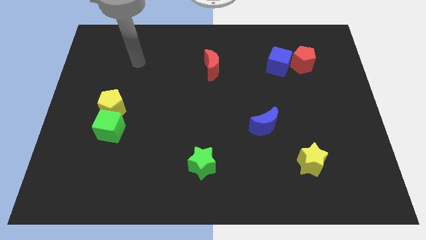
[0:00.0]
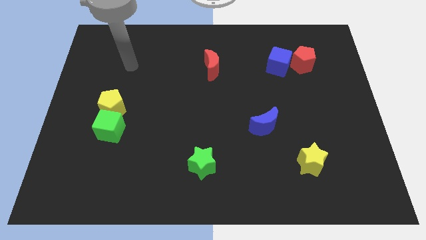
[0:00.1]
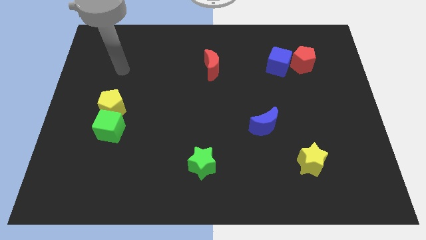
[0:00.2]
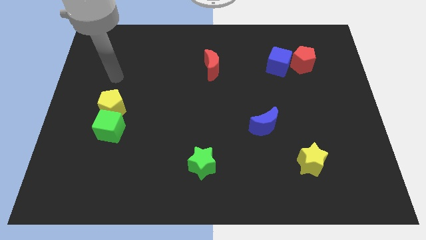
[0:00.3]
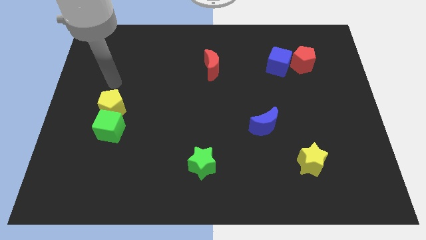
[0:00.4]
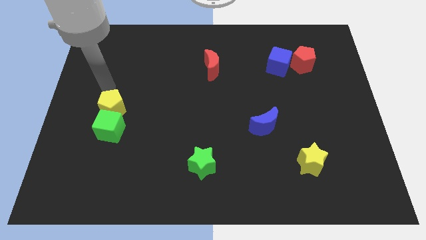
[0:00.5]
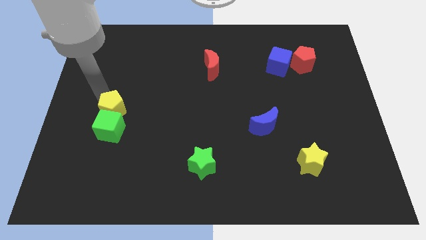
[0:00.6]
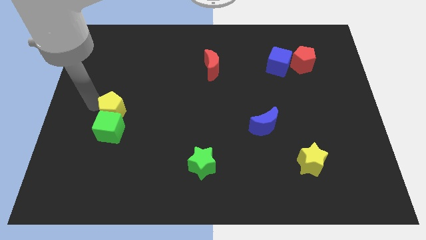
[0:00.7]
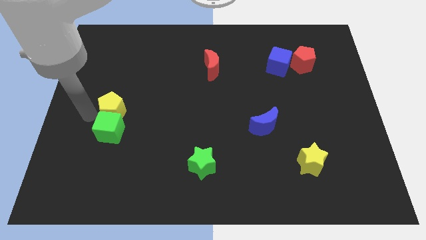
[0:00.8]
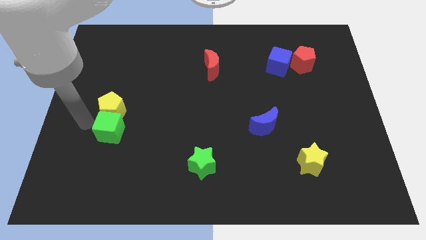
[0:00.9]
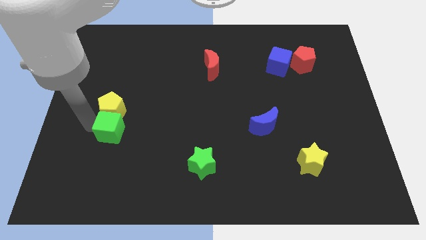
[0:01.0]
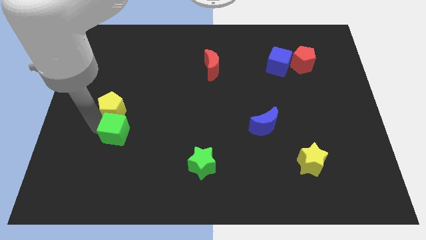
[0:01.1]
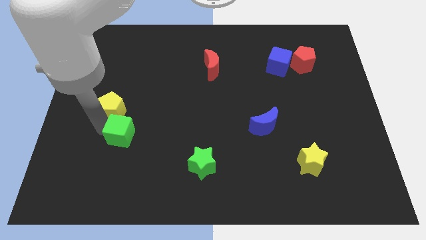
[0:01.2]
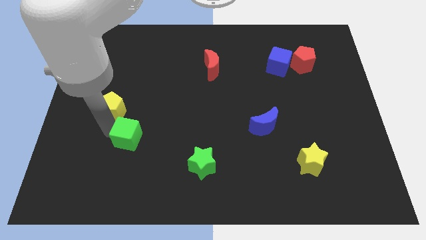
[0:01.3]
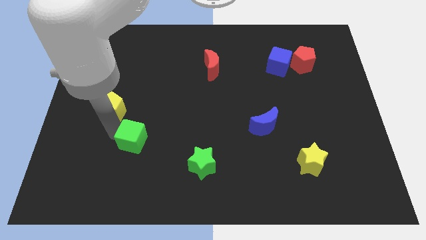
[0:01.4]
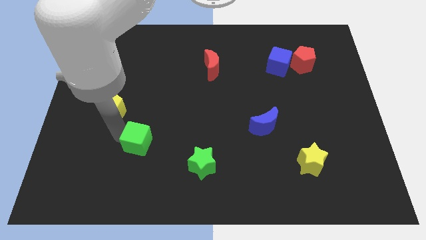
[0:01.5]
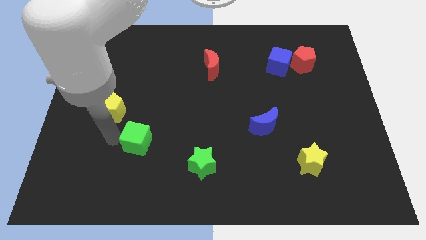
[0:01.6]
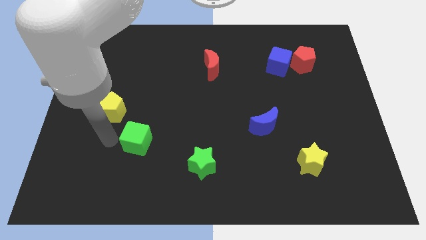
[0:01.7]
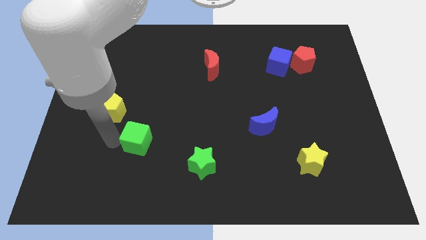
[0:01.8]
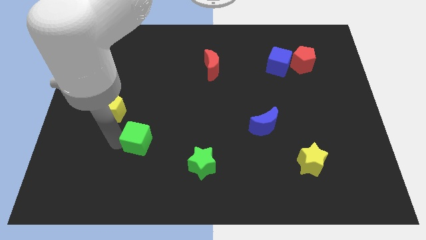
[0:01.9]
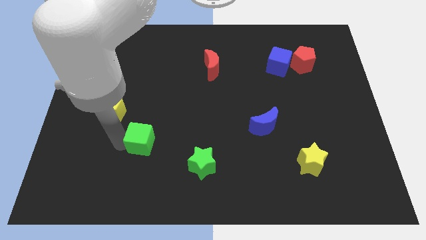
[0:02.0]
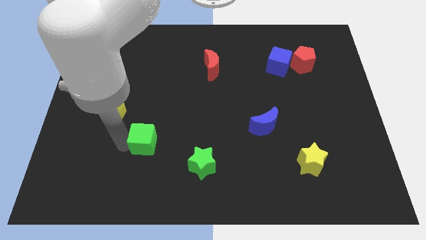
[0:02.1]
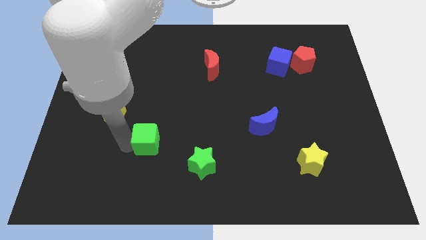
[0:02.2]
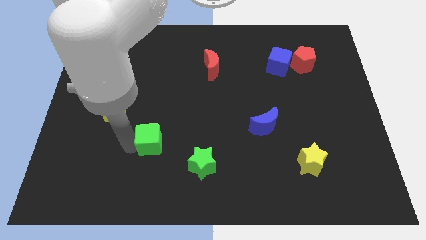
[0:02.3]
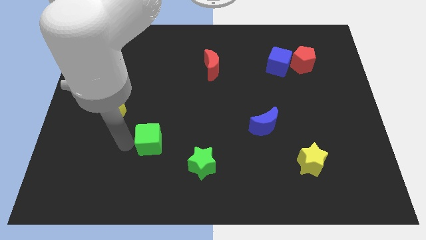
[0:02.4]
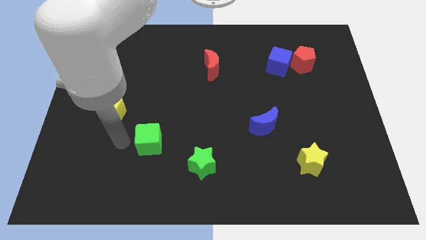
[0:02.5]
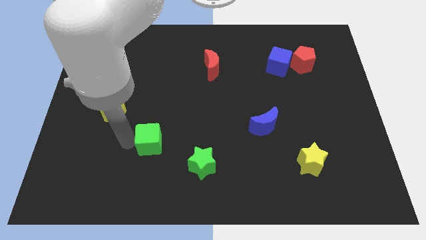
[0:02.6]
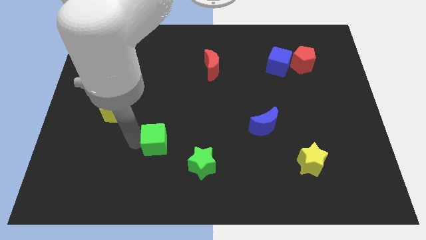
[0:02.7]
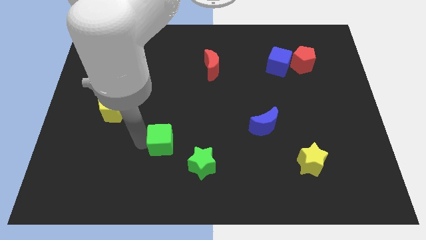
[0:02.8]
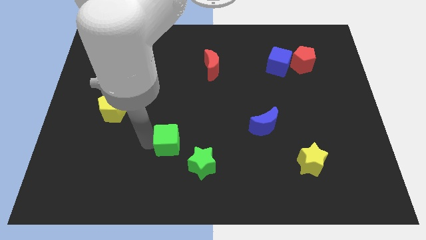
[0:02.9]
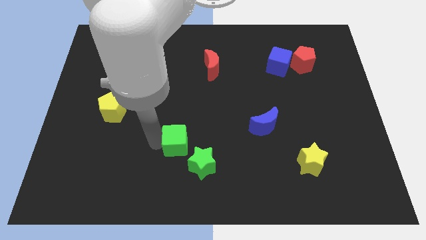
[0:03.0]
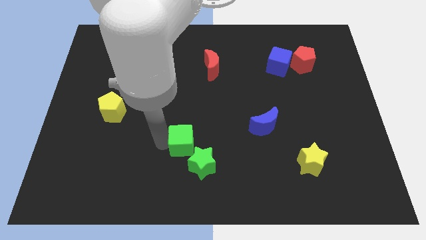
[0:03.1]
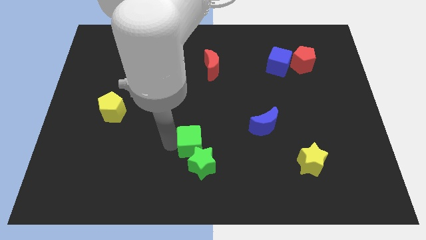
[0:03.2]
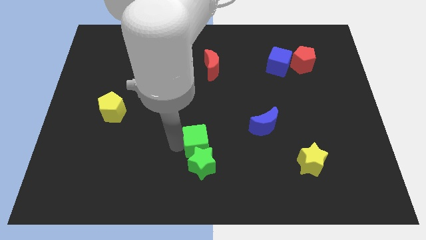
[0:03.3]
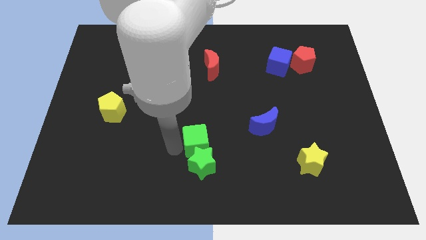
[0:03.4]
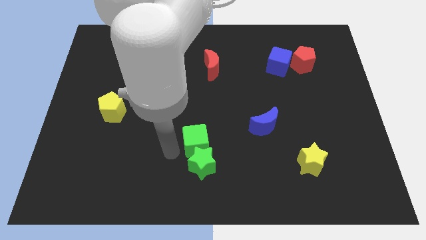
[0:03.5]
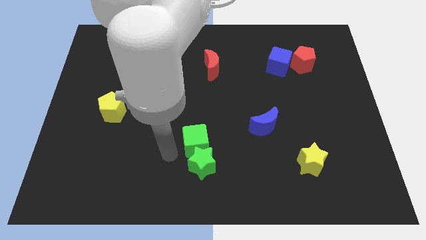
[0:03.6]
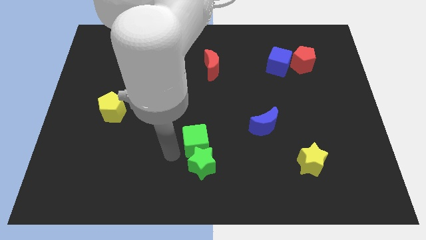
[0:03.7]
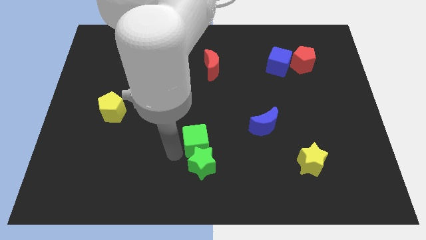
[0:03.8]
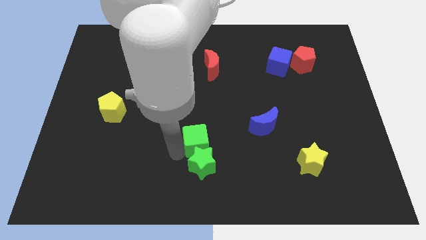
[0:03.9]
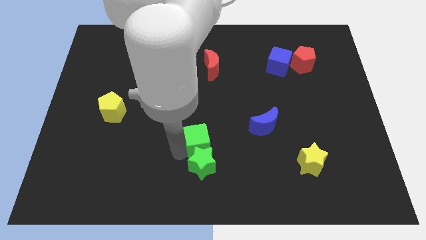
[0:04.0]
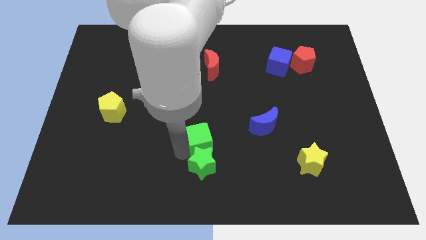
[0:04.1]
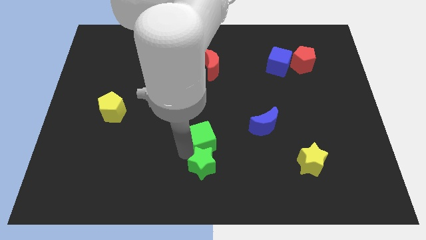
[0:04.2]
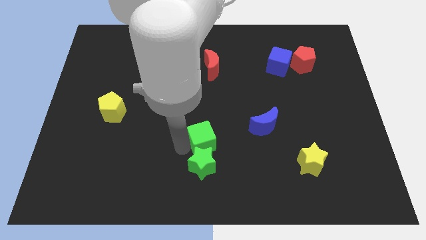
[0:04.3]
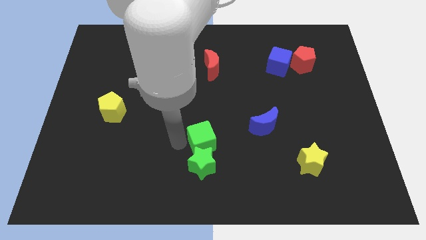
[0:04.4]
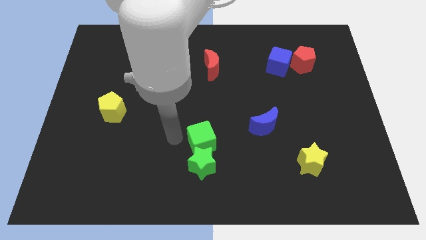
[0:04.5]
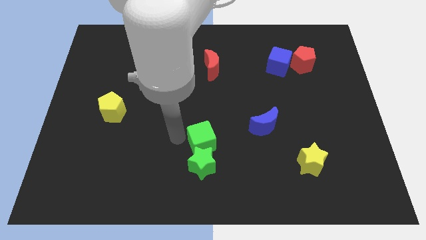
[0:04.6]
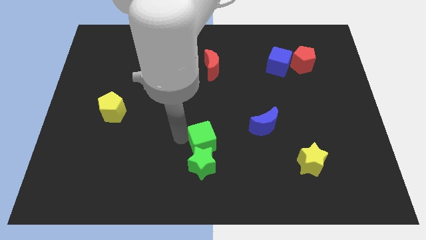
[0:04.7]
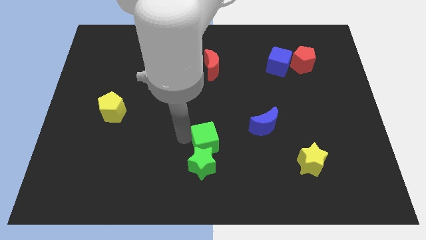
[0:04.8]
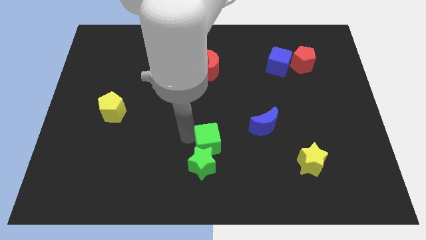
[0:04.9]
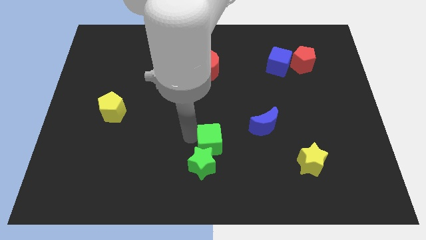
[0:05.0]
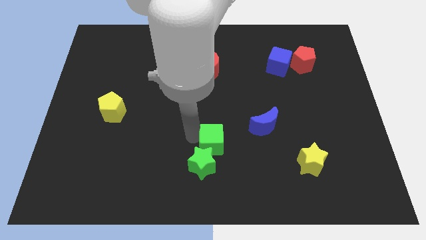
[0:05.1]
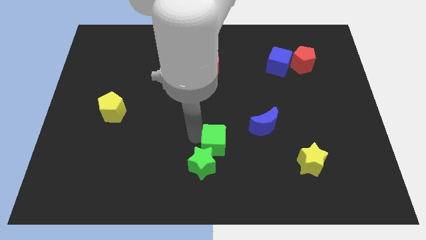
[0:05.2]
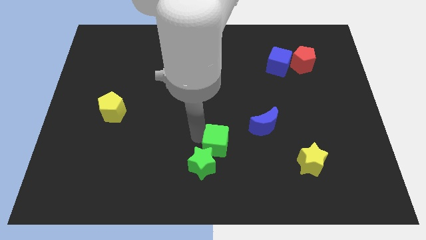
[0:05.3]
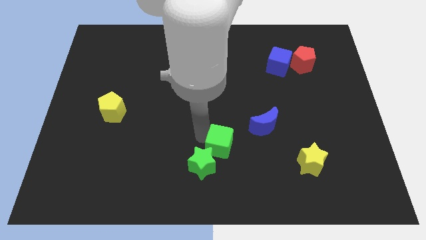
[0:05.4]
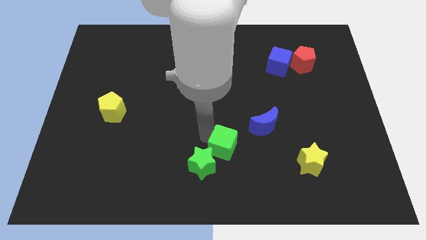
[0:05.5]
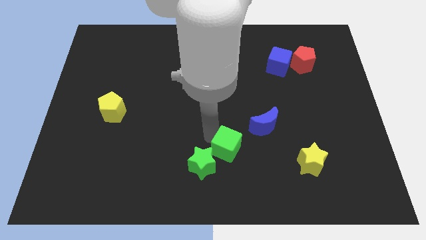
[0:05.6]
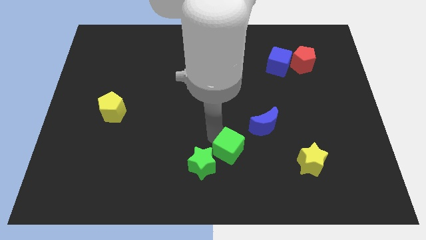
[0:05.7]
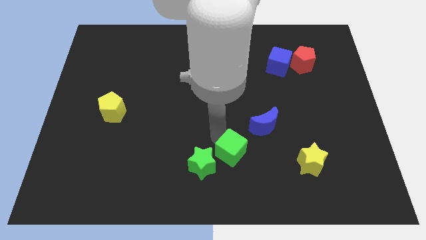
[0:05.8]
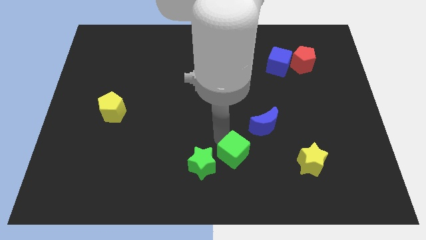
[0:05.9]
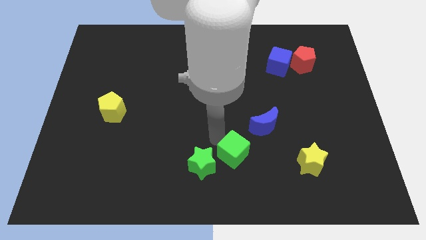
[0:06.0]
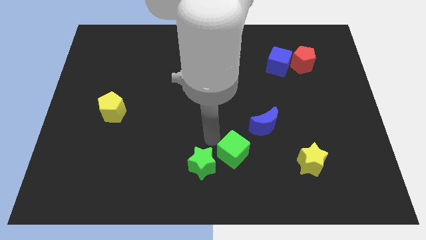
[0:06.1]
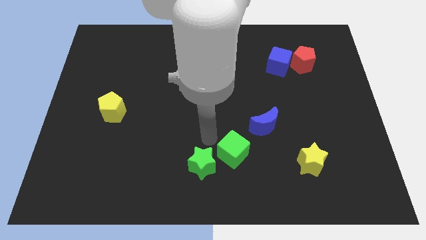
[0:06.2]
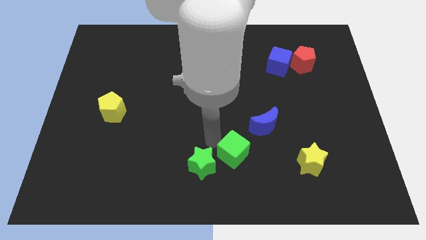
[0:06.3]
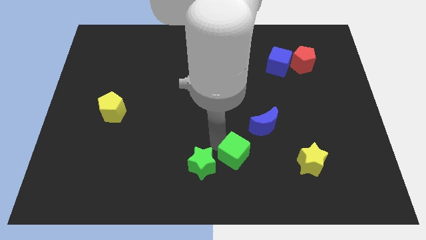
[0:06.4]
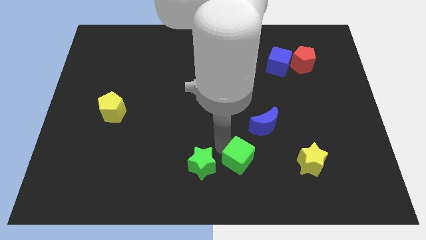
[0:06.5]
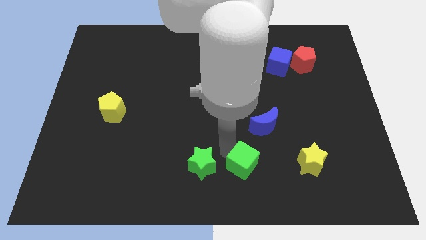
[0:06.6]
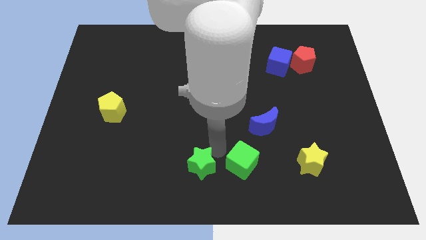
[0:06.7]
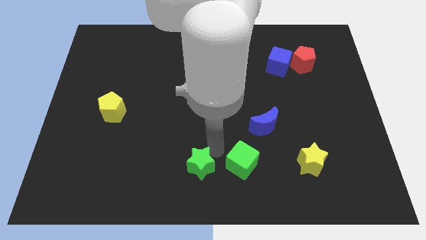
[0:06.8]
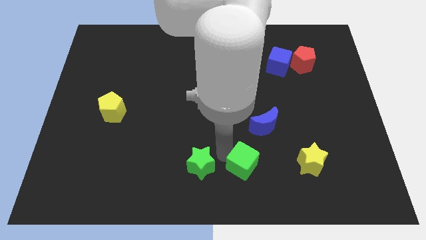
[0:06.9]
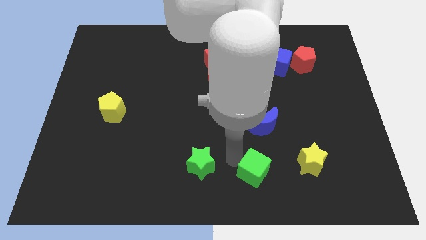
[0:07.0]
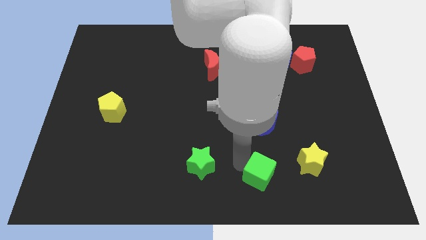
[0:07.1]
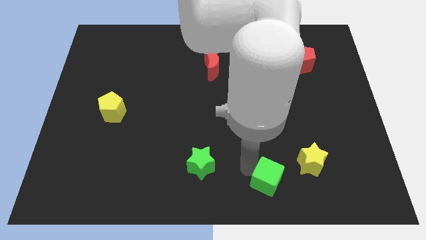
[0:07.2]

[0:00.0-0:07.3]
put the green cube diagonally down and to the left of the yellow star
